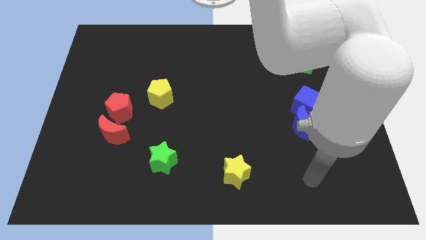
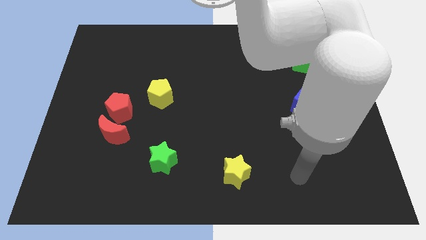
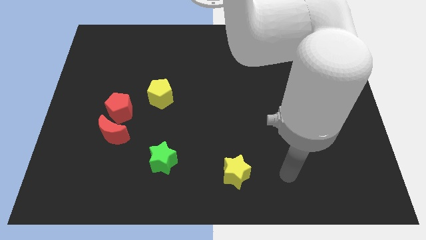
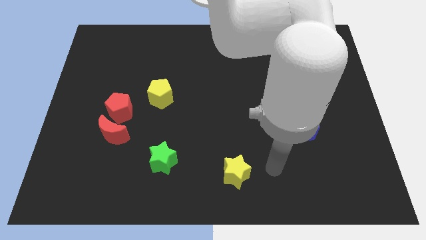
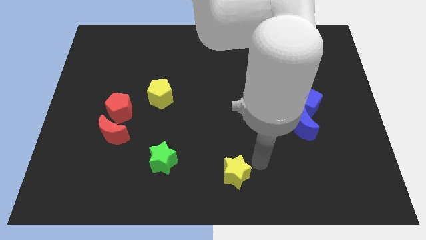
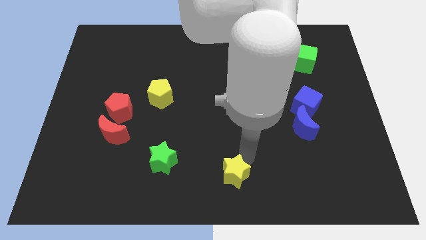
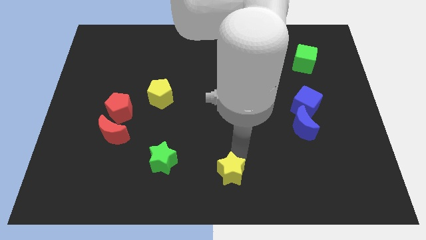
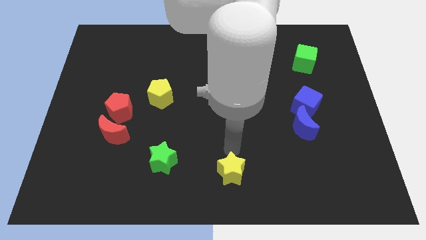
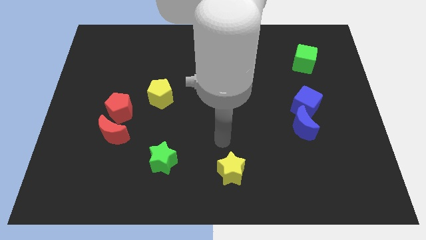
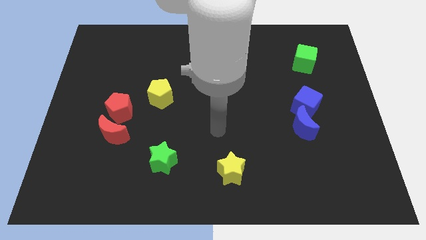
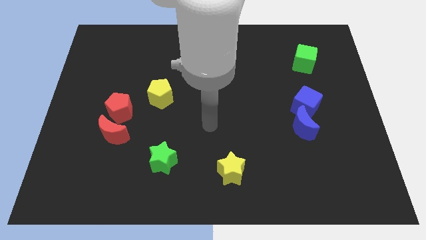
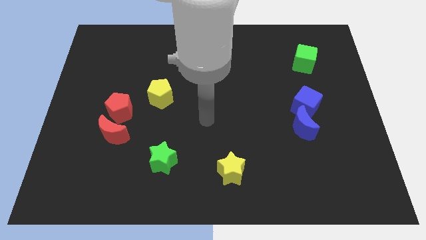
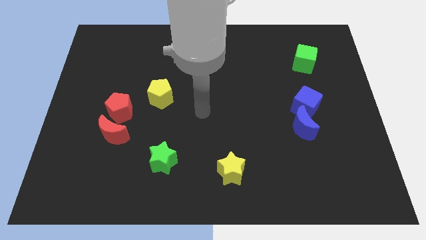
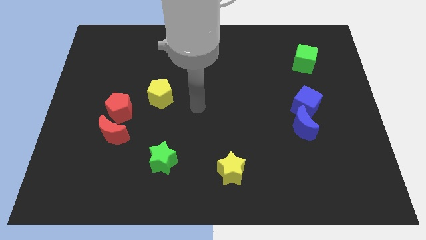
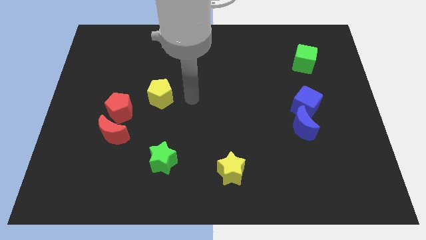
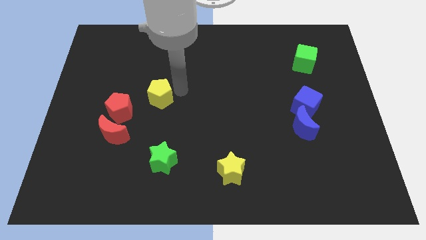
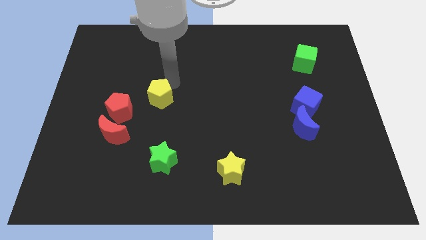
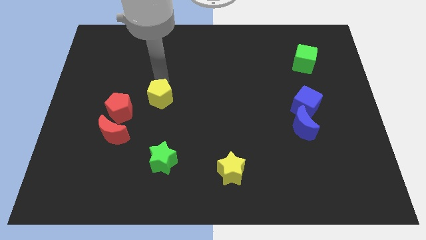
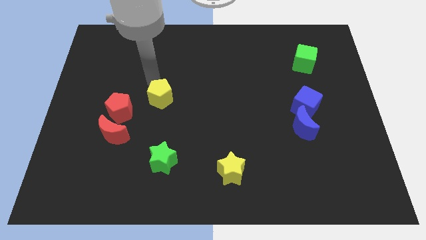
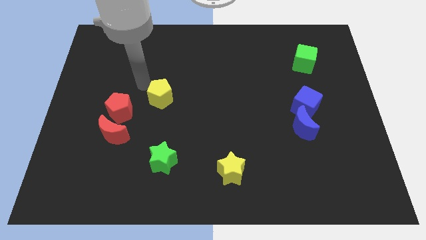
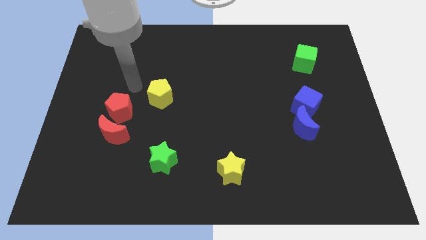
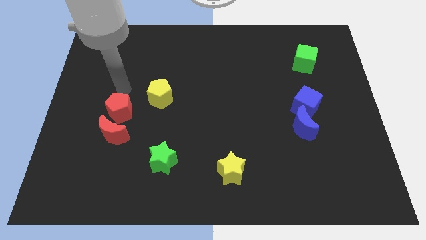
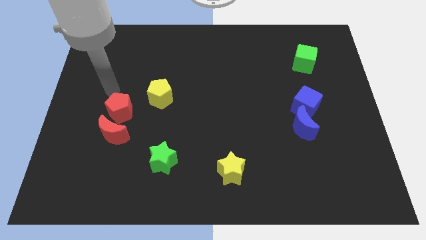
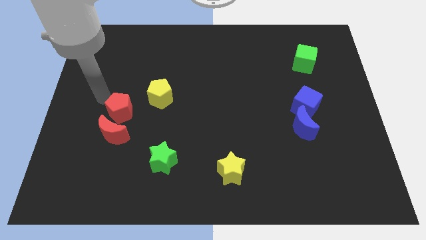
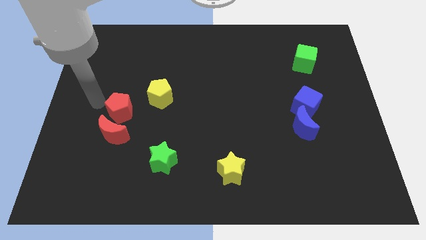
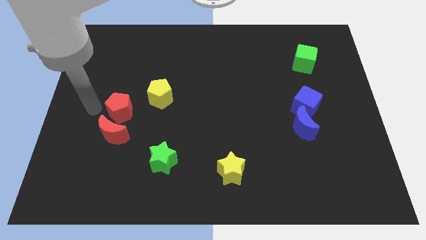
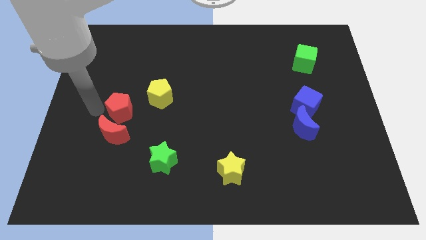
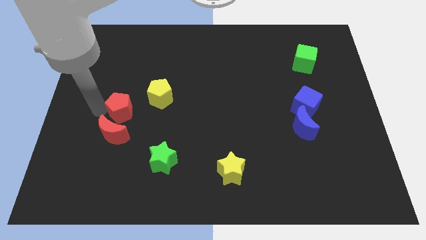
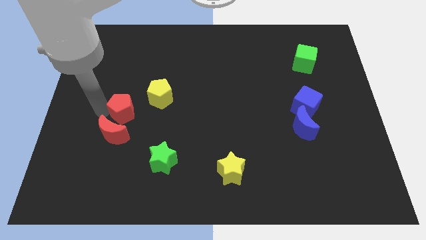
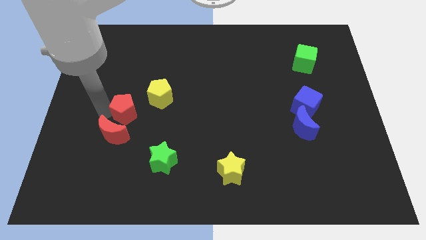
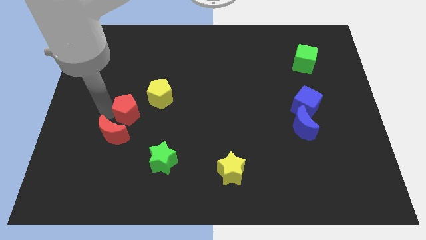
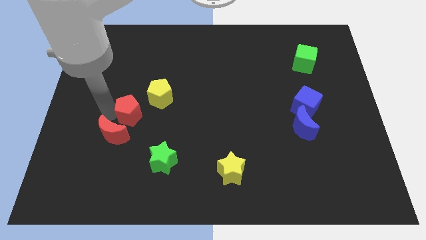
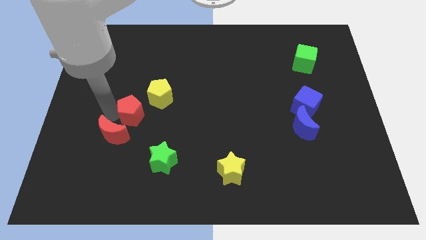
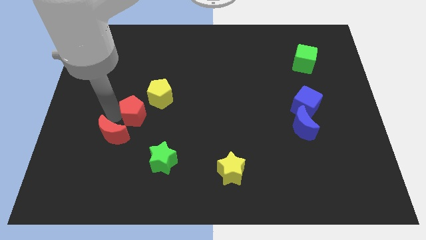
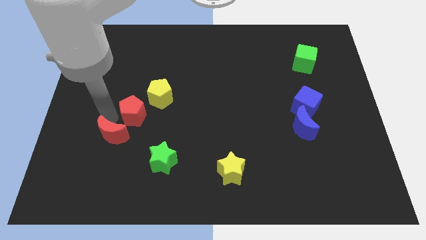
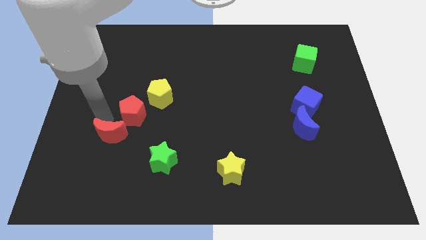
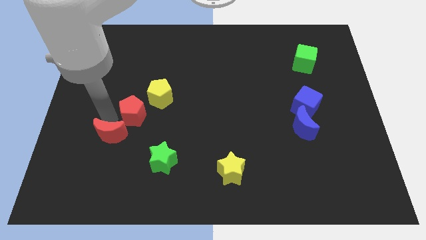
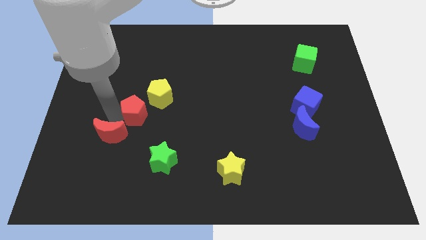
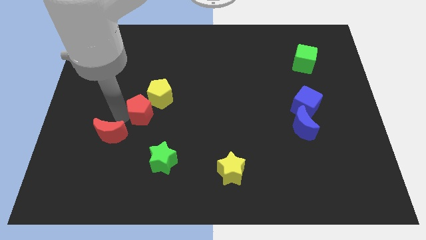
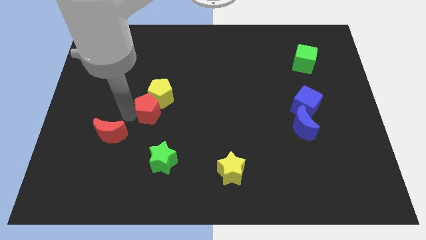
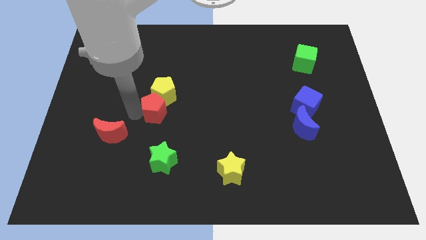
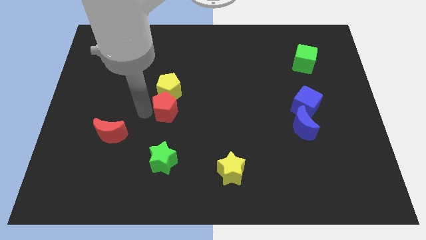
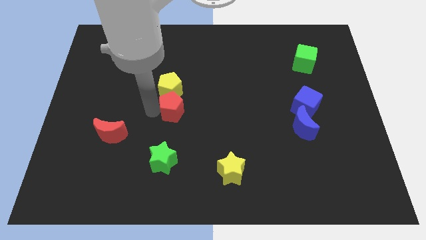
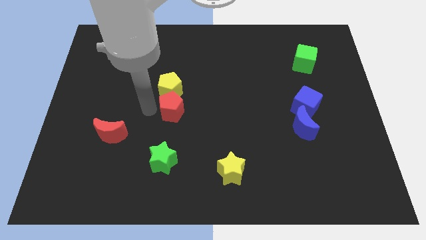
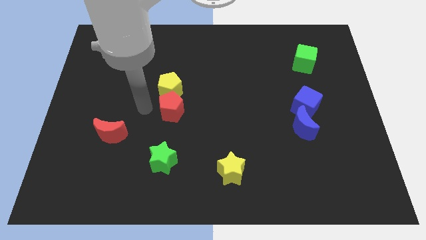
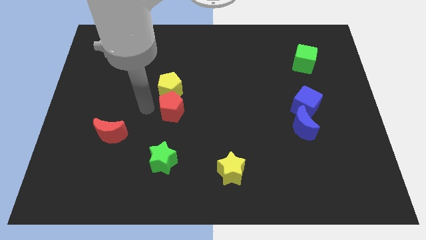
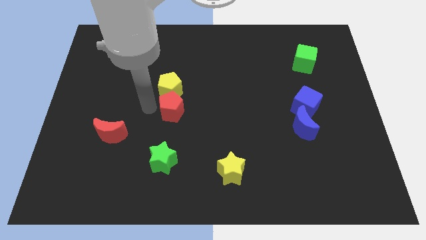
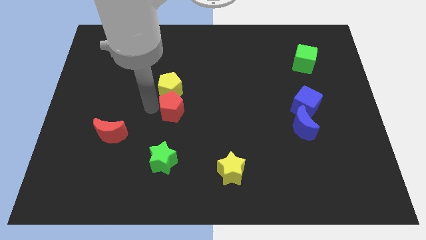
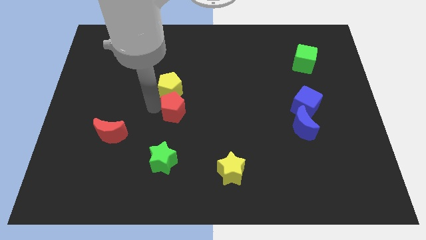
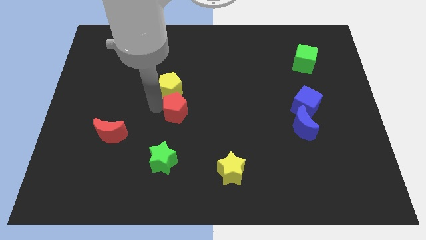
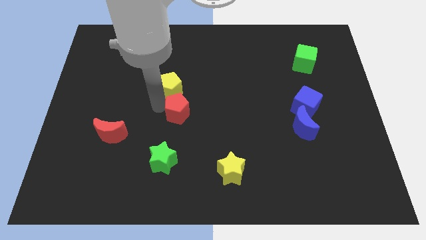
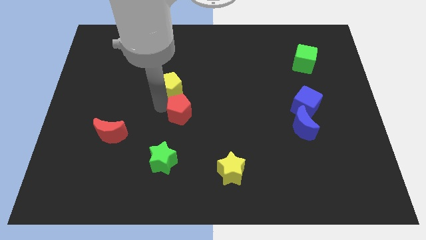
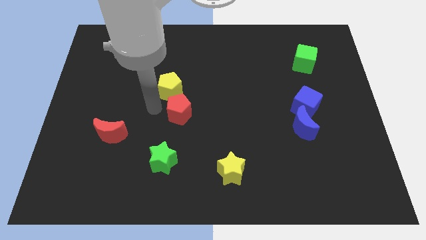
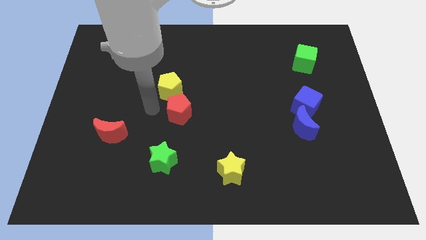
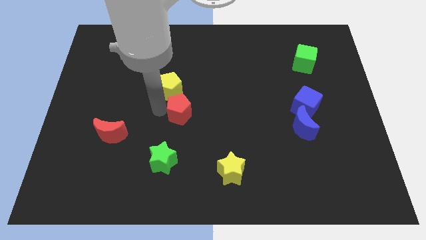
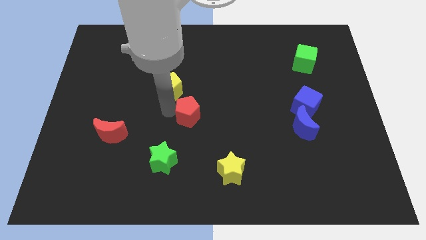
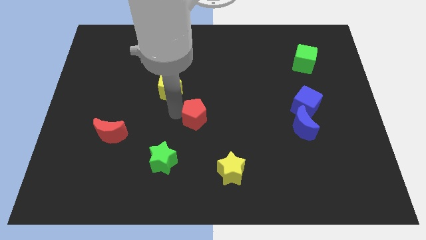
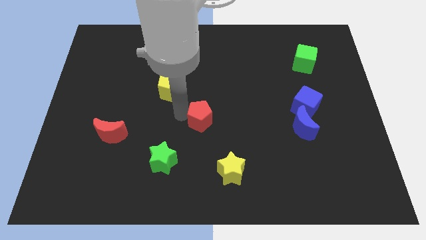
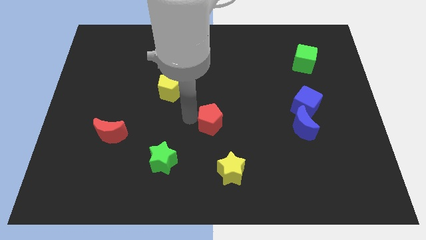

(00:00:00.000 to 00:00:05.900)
move the red pentagon to the right

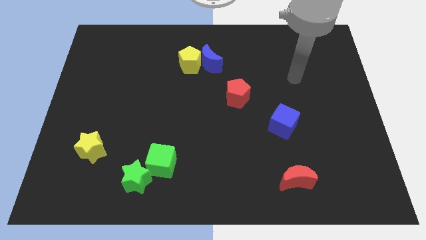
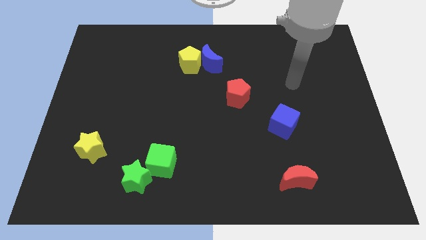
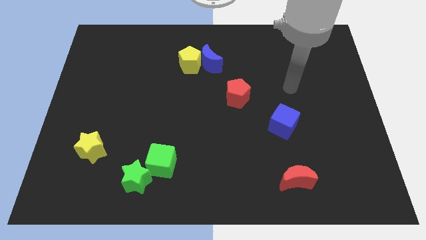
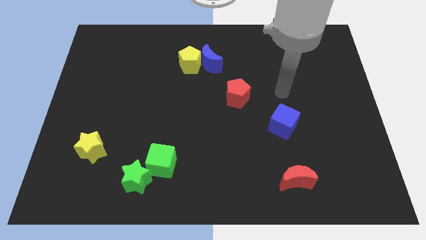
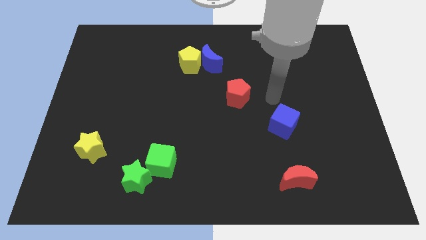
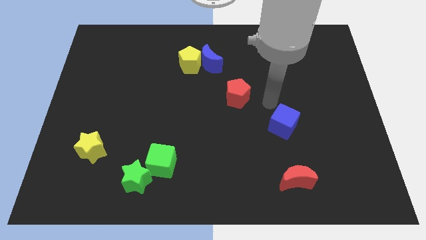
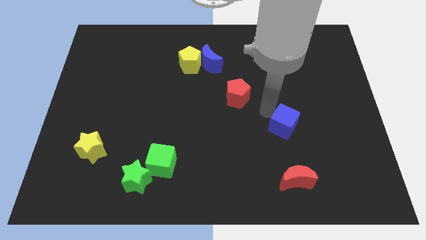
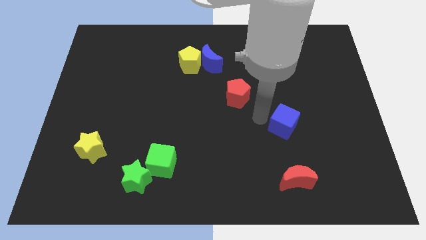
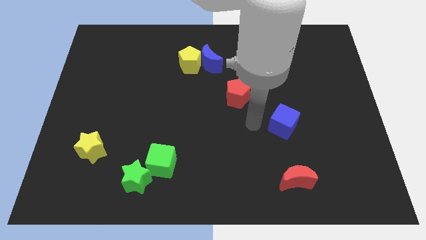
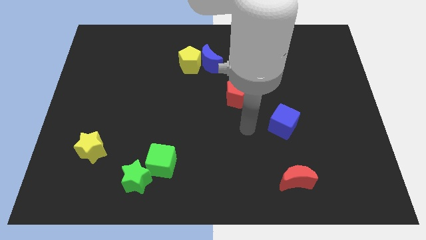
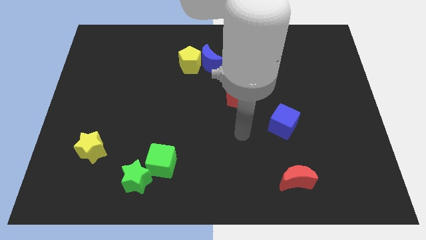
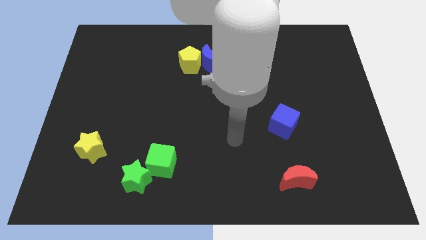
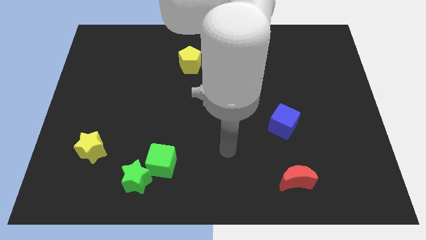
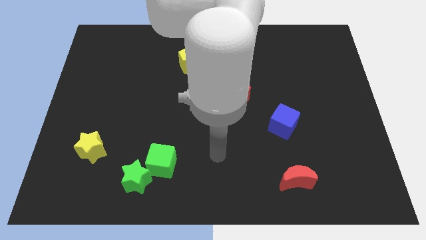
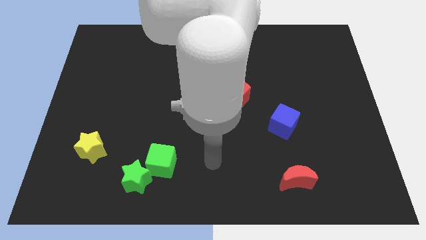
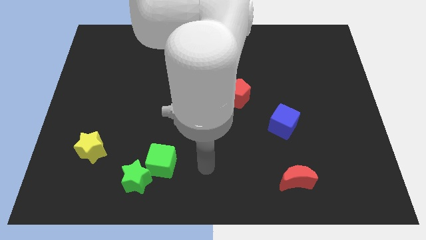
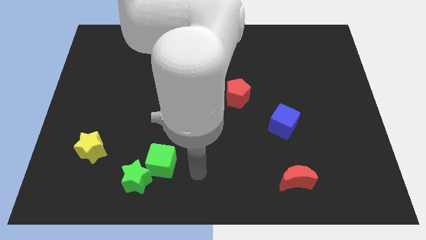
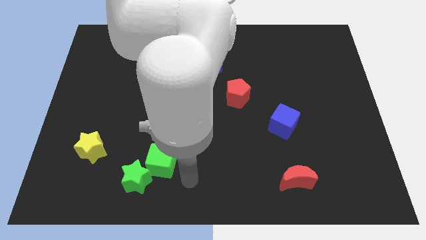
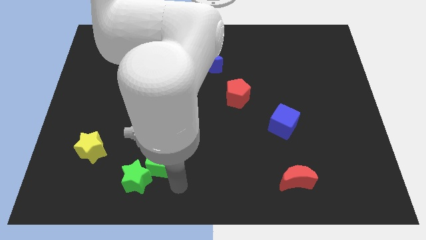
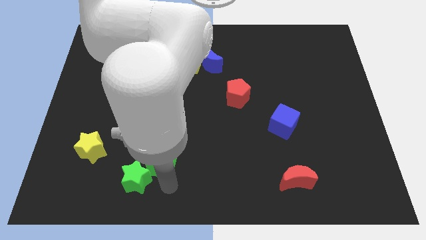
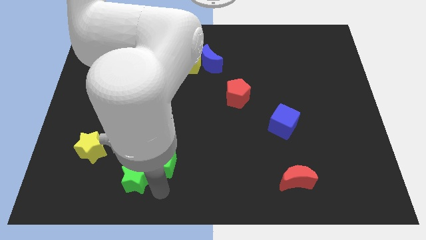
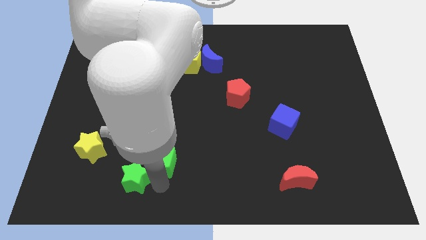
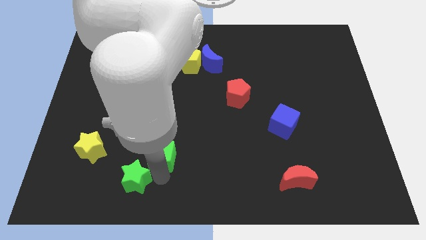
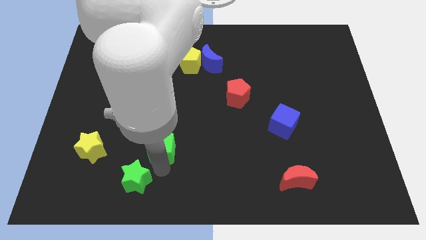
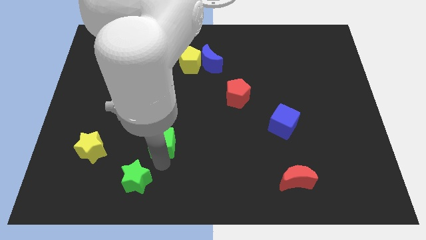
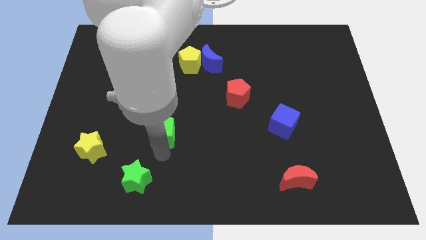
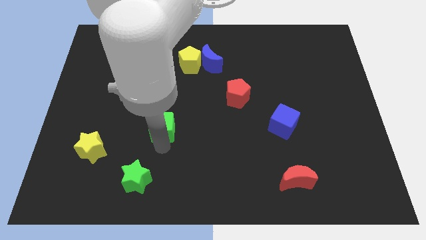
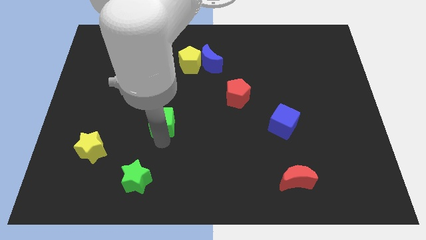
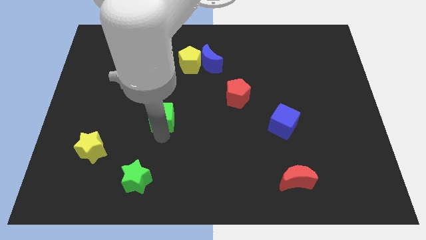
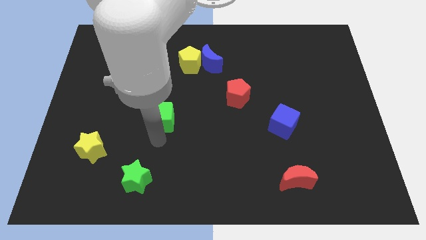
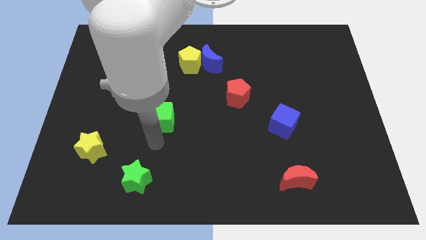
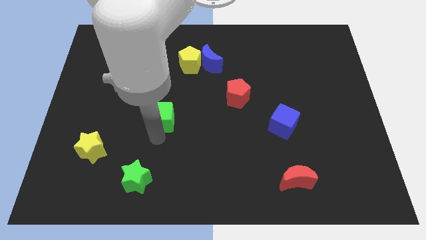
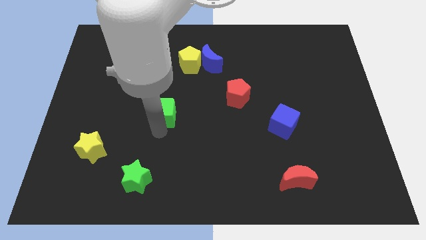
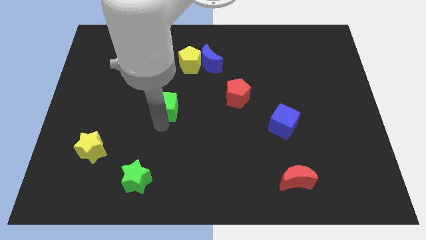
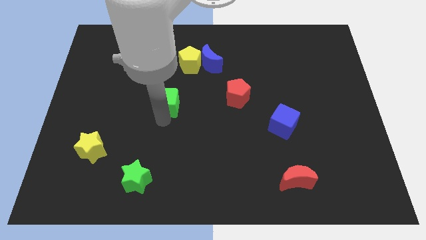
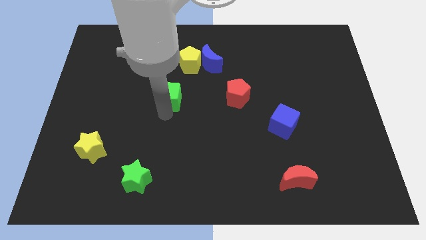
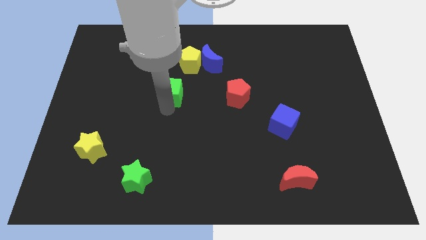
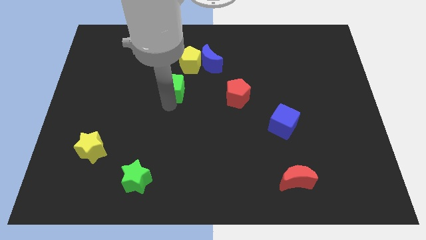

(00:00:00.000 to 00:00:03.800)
push the green cube upwards
